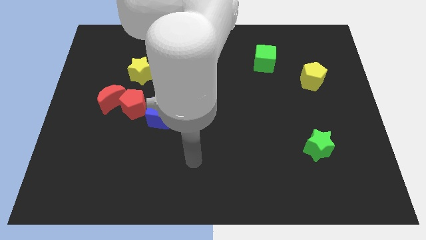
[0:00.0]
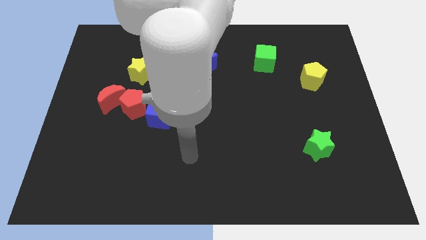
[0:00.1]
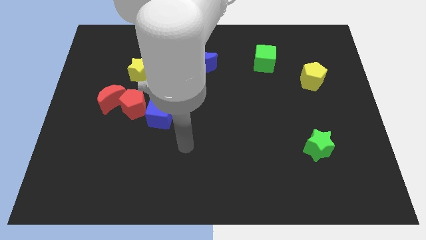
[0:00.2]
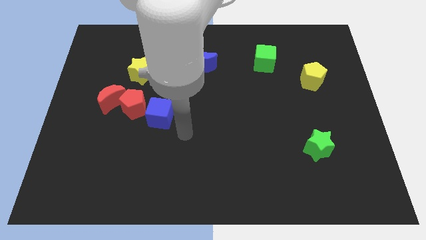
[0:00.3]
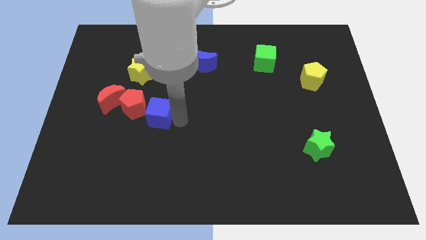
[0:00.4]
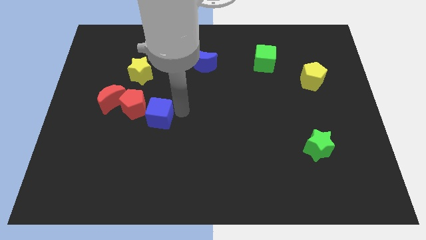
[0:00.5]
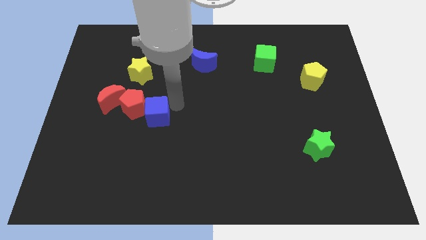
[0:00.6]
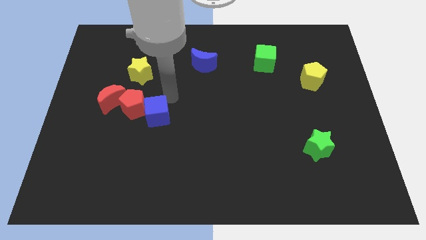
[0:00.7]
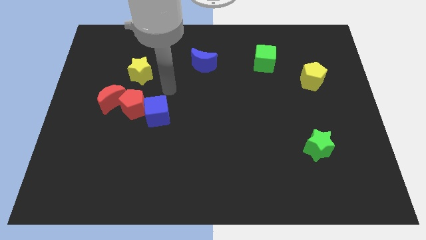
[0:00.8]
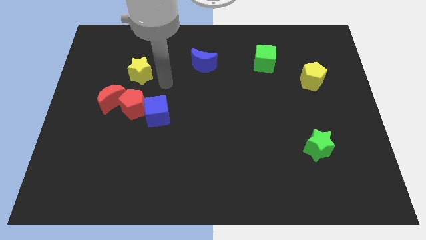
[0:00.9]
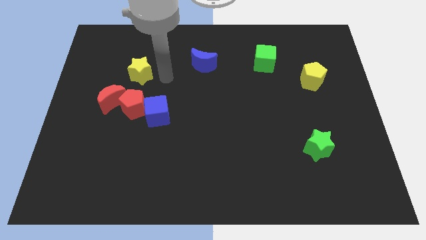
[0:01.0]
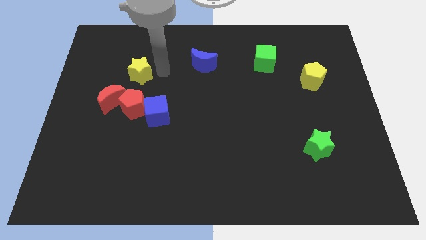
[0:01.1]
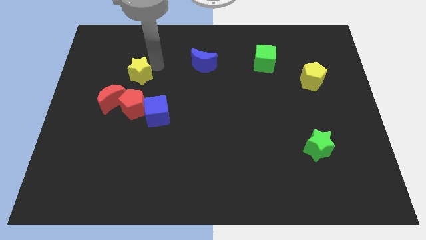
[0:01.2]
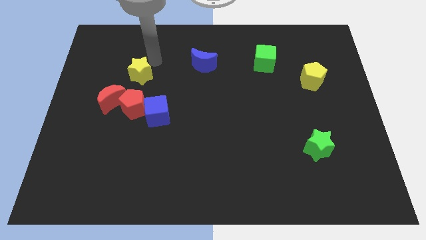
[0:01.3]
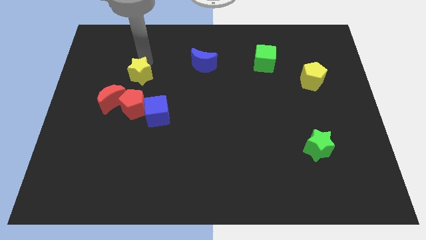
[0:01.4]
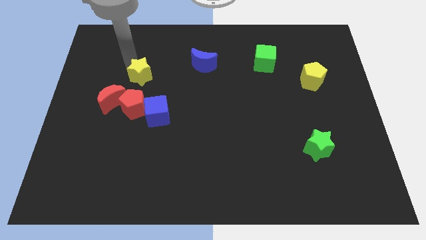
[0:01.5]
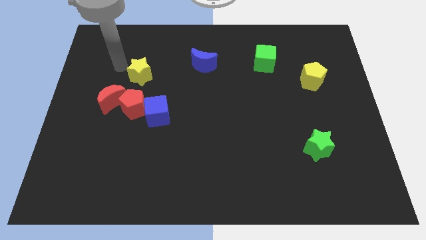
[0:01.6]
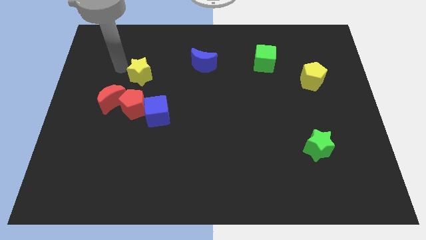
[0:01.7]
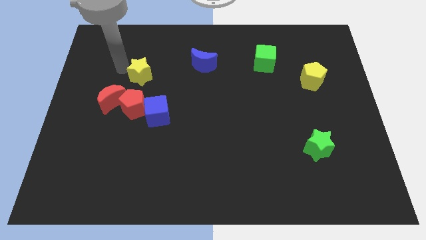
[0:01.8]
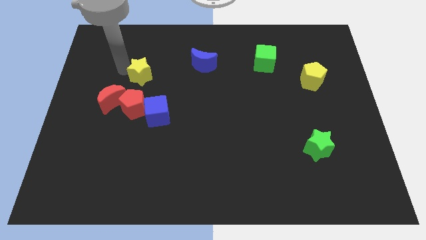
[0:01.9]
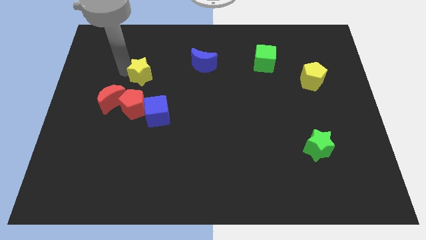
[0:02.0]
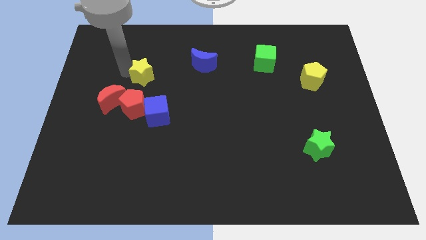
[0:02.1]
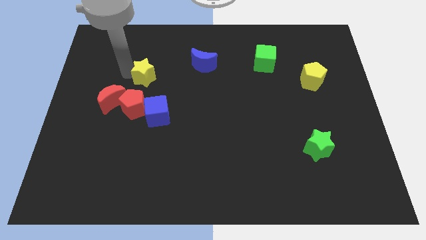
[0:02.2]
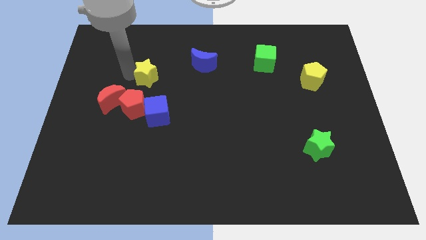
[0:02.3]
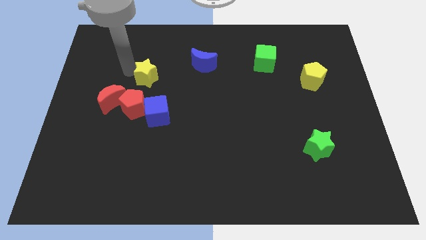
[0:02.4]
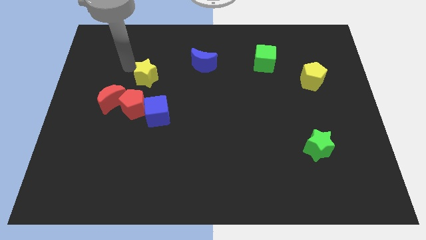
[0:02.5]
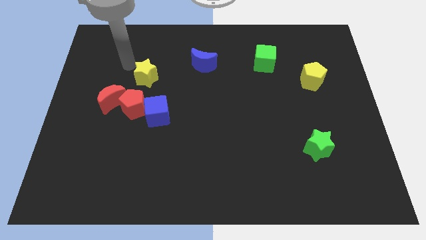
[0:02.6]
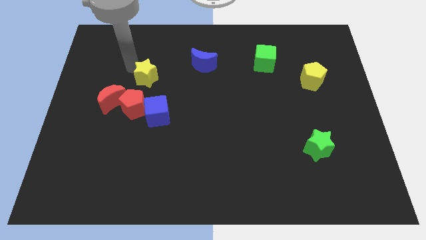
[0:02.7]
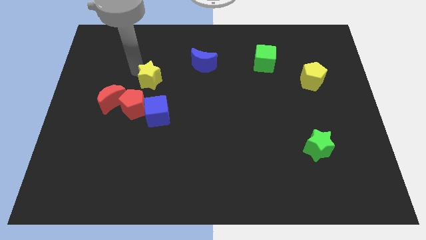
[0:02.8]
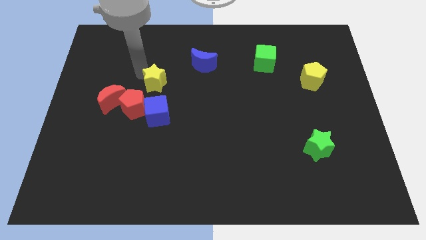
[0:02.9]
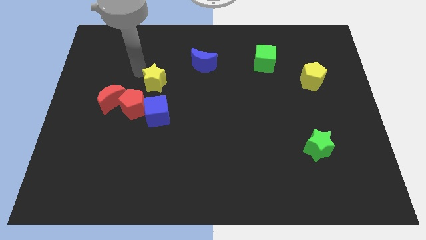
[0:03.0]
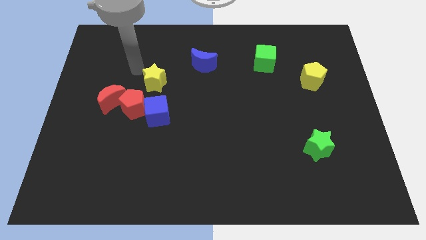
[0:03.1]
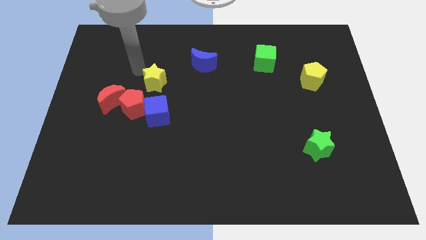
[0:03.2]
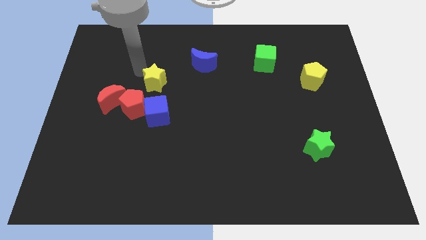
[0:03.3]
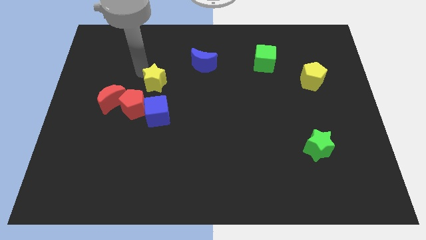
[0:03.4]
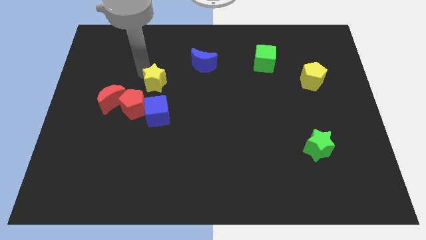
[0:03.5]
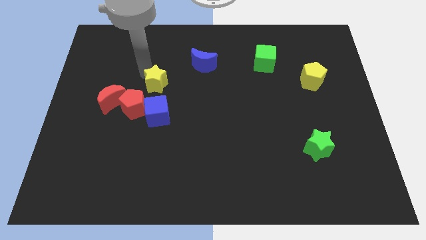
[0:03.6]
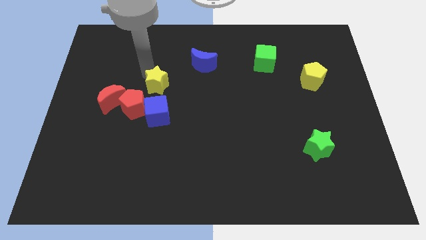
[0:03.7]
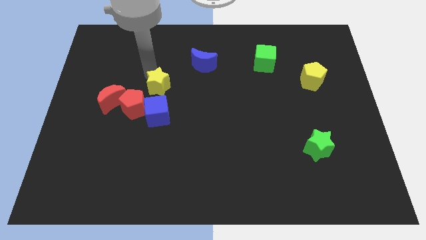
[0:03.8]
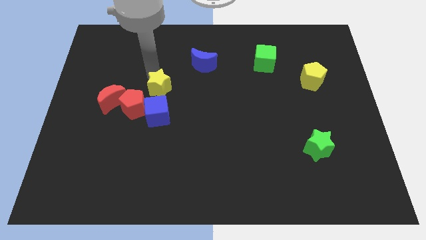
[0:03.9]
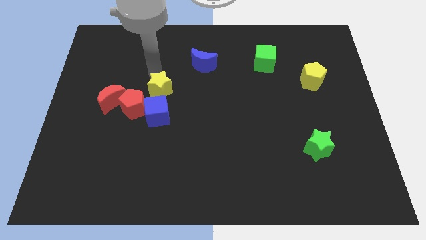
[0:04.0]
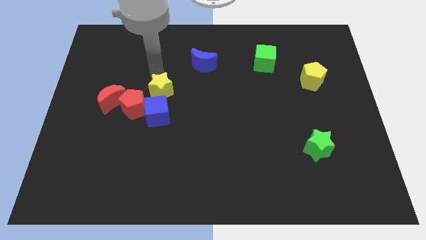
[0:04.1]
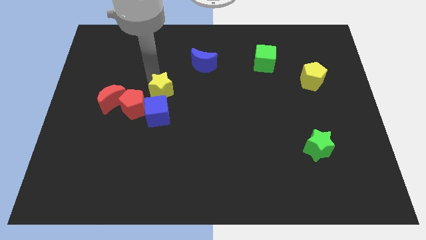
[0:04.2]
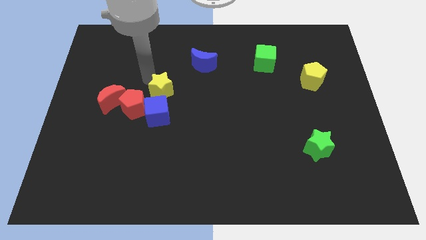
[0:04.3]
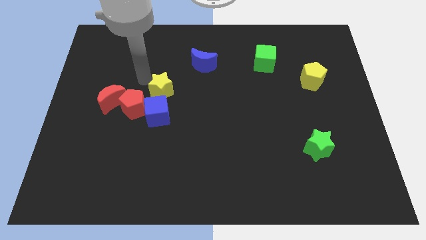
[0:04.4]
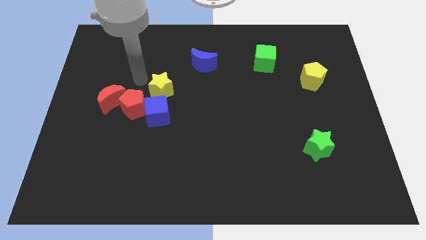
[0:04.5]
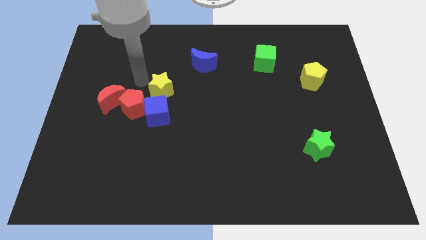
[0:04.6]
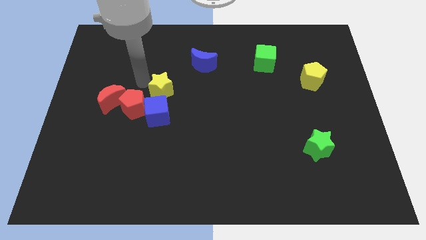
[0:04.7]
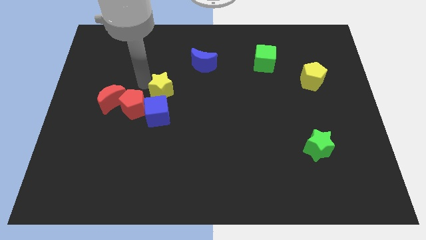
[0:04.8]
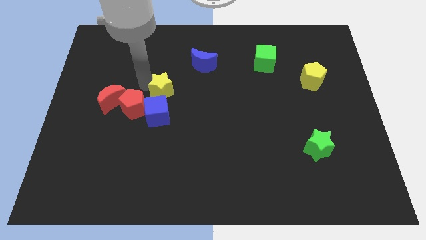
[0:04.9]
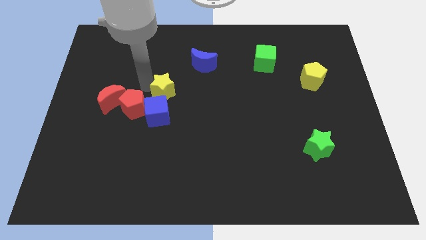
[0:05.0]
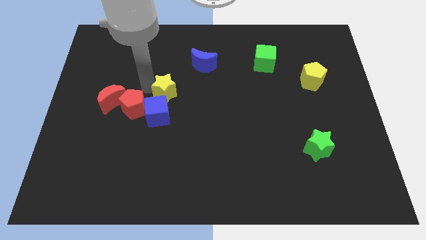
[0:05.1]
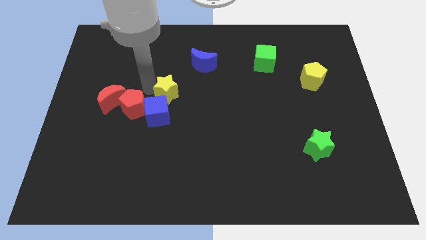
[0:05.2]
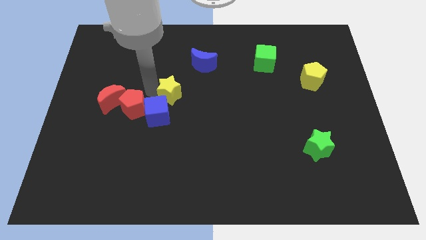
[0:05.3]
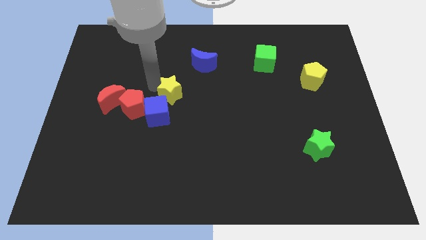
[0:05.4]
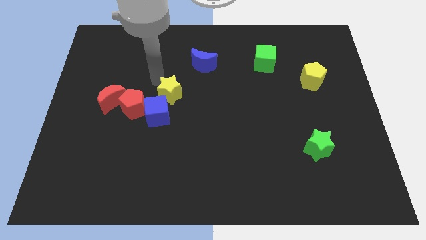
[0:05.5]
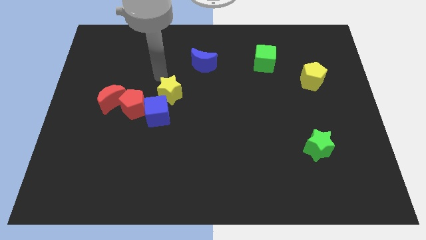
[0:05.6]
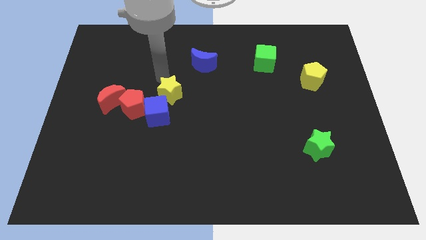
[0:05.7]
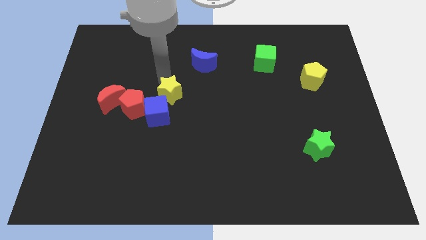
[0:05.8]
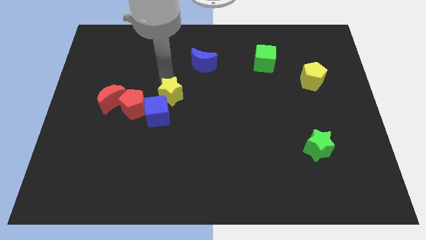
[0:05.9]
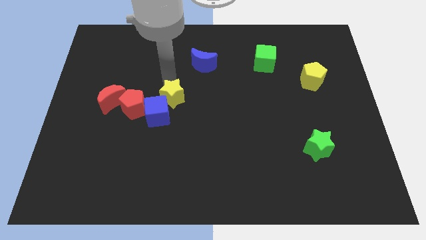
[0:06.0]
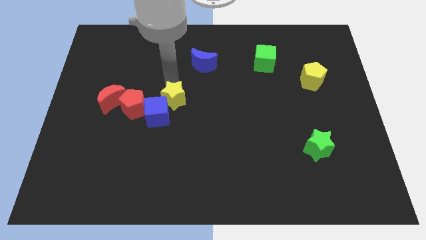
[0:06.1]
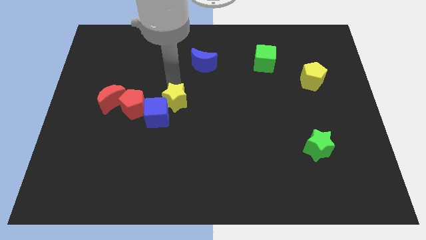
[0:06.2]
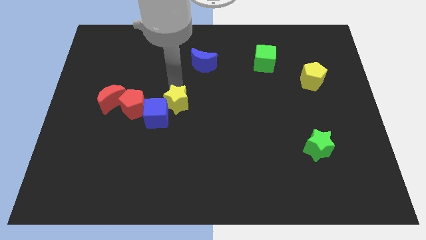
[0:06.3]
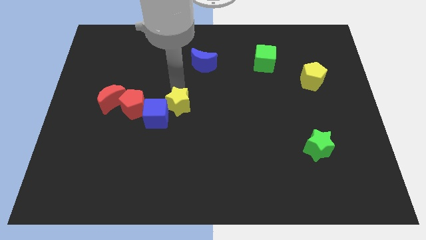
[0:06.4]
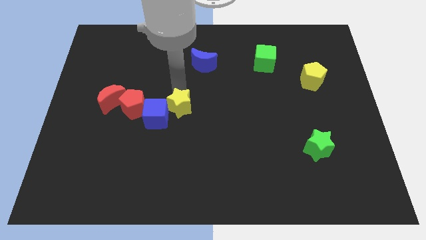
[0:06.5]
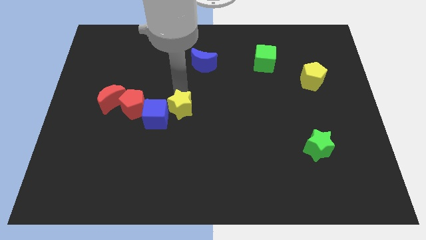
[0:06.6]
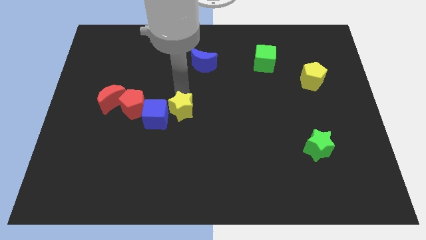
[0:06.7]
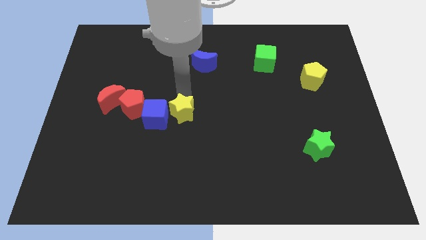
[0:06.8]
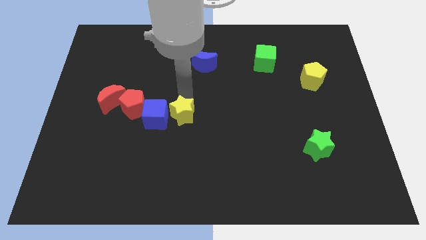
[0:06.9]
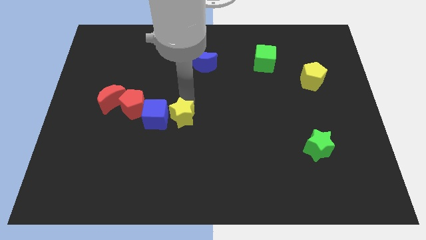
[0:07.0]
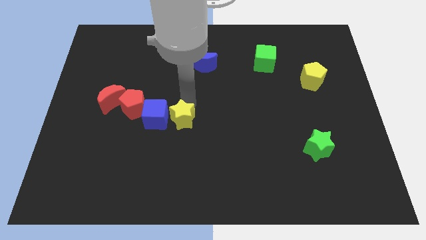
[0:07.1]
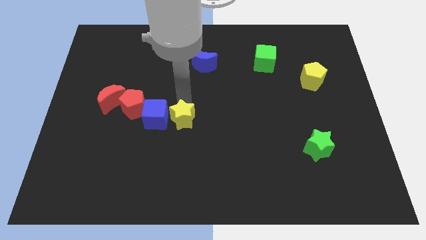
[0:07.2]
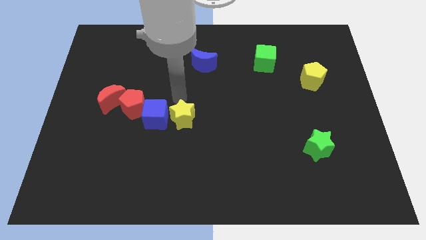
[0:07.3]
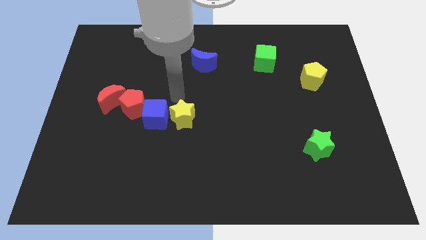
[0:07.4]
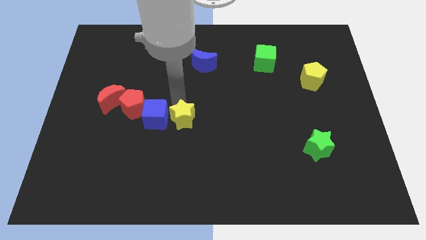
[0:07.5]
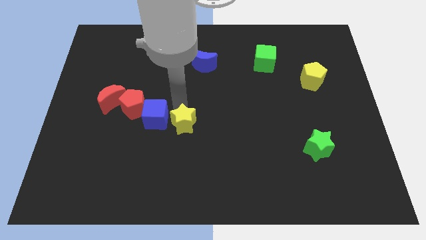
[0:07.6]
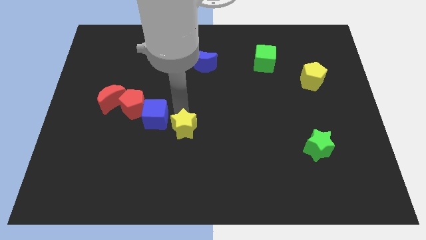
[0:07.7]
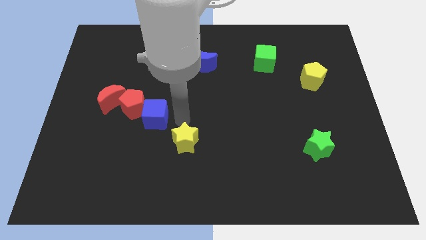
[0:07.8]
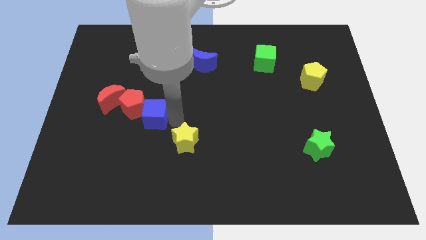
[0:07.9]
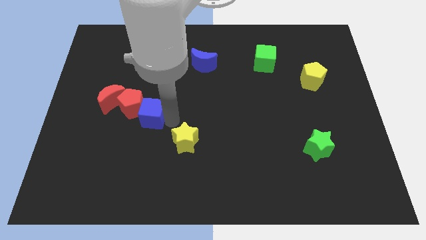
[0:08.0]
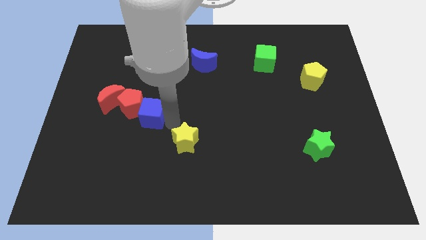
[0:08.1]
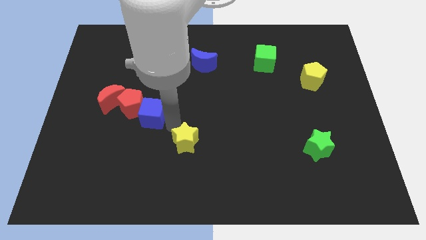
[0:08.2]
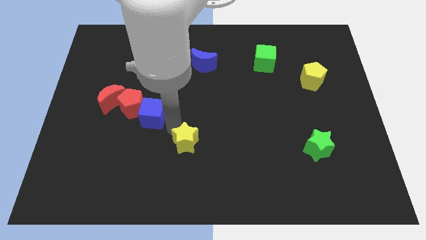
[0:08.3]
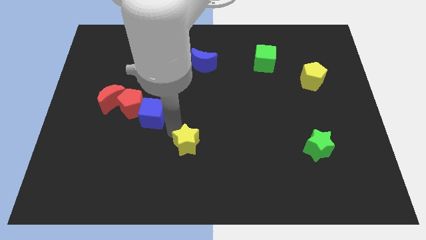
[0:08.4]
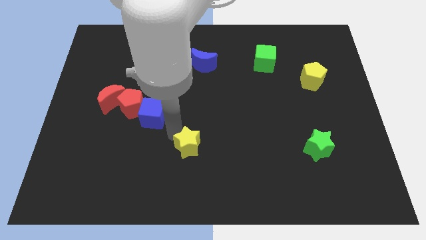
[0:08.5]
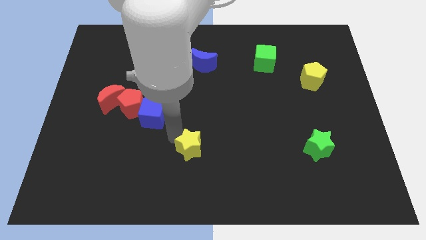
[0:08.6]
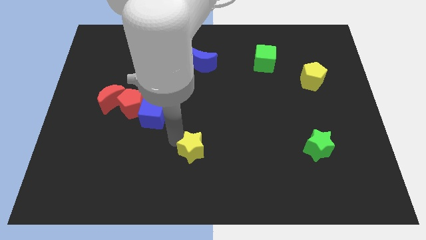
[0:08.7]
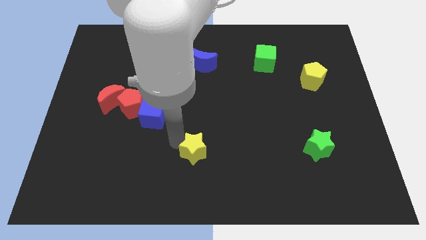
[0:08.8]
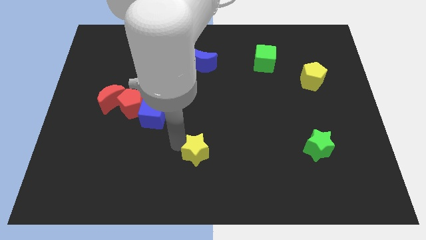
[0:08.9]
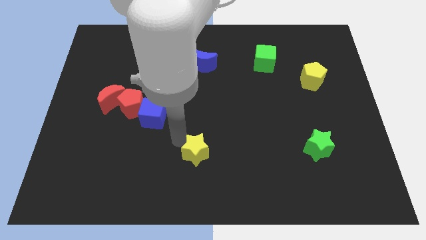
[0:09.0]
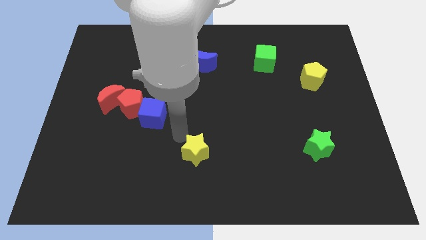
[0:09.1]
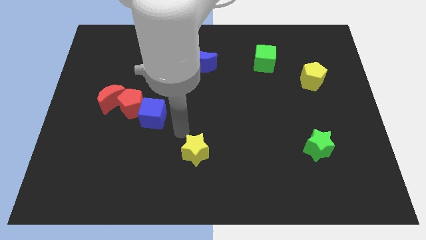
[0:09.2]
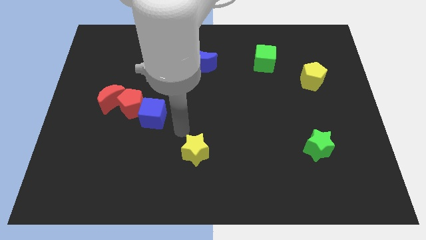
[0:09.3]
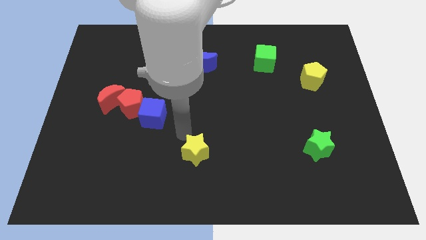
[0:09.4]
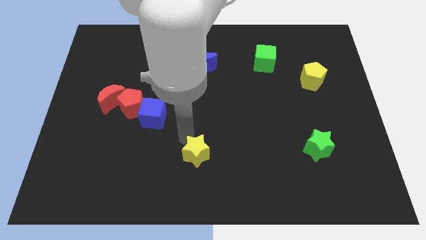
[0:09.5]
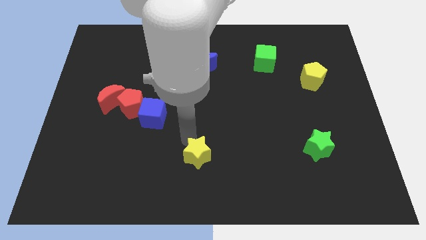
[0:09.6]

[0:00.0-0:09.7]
push the yellow star to the bottom side
